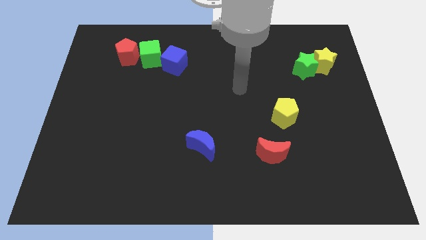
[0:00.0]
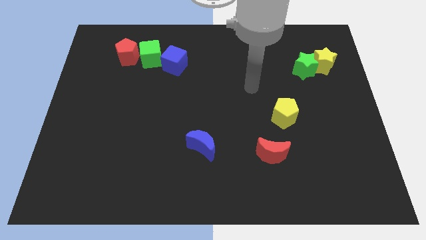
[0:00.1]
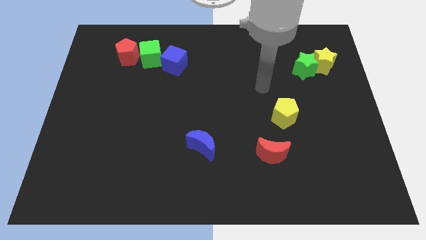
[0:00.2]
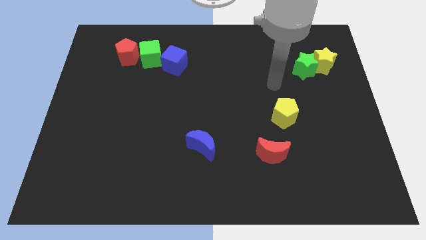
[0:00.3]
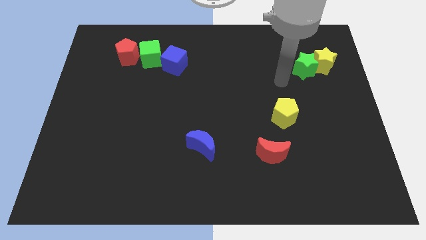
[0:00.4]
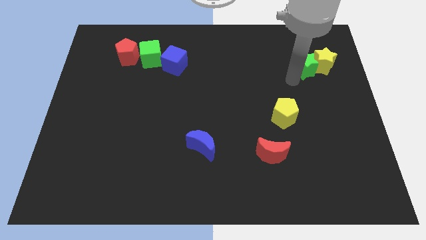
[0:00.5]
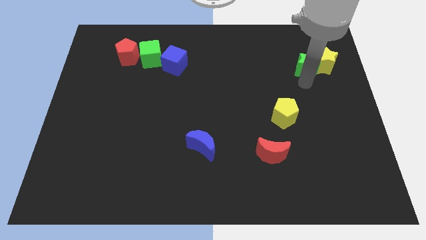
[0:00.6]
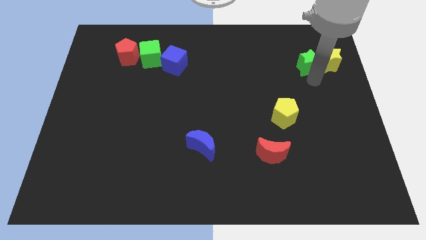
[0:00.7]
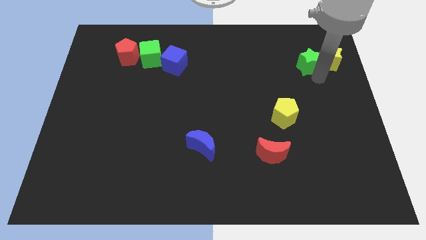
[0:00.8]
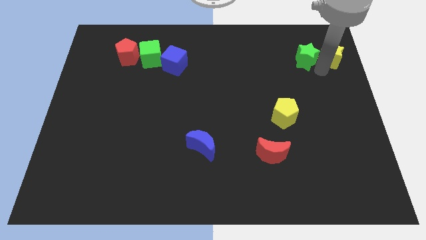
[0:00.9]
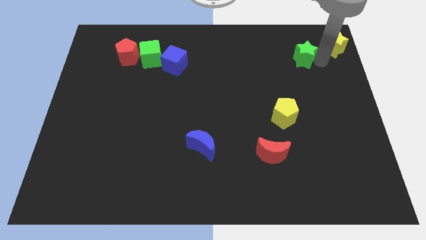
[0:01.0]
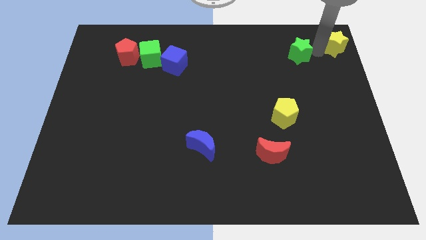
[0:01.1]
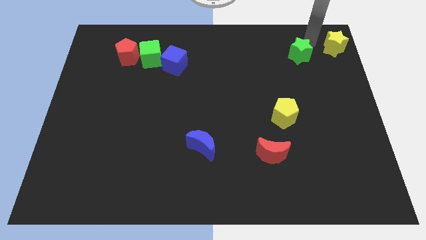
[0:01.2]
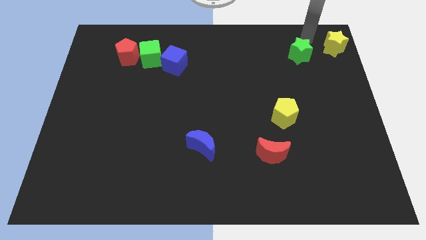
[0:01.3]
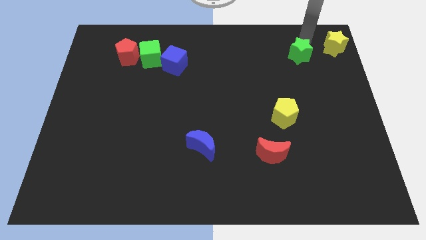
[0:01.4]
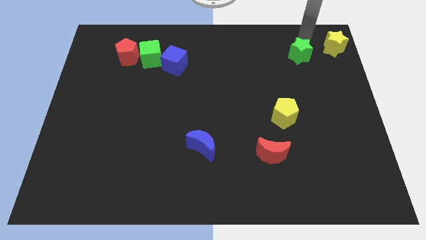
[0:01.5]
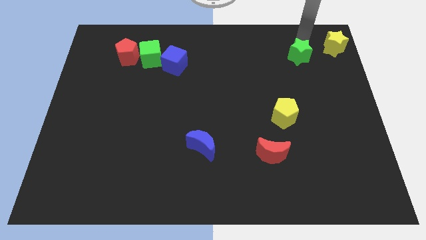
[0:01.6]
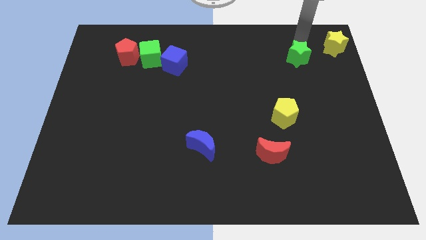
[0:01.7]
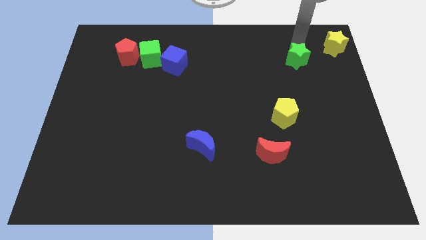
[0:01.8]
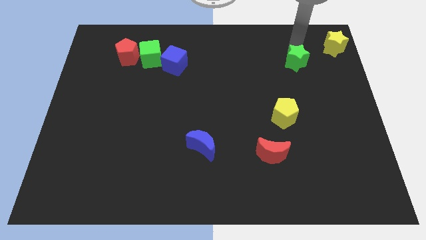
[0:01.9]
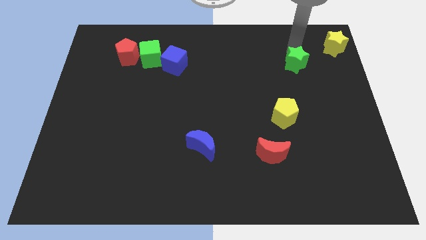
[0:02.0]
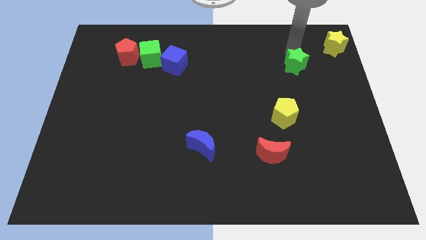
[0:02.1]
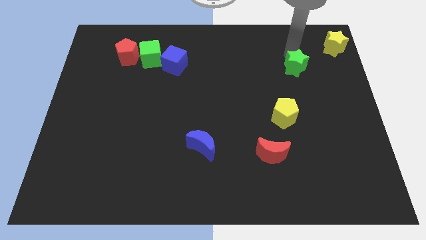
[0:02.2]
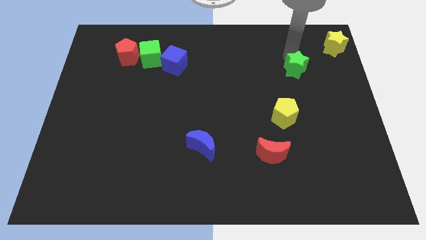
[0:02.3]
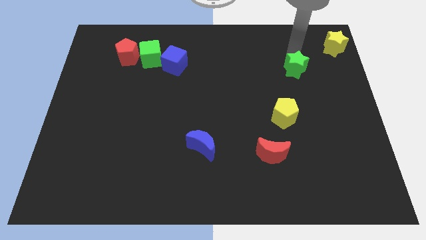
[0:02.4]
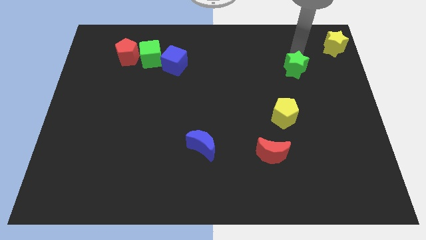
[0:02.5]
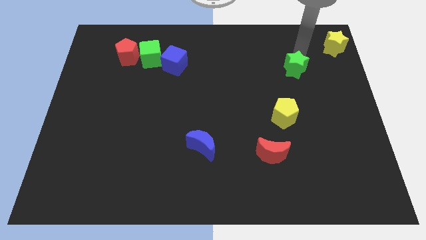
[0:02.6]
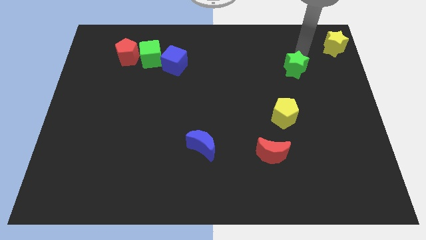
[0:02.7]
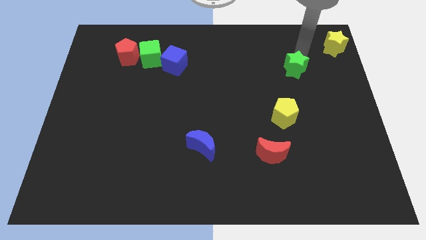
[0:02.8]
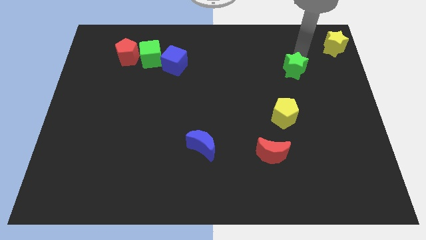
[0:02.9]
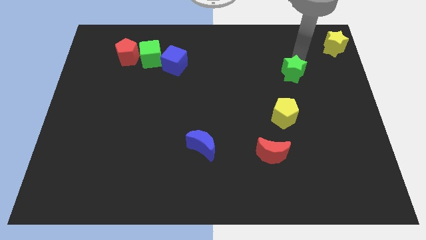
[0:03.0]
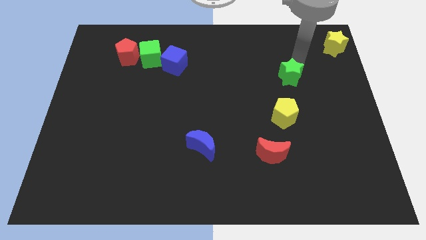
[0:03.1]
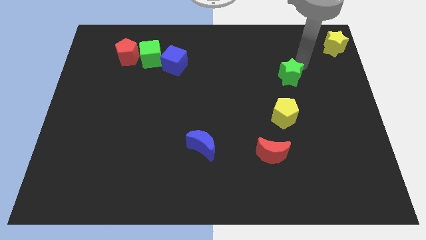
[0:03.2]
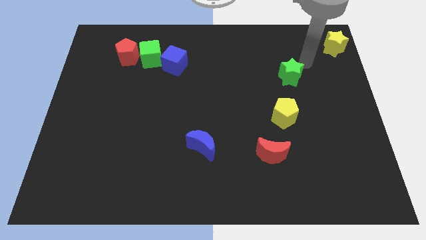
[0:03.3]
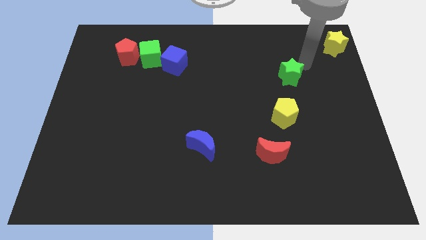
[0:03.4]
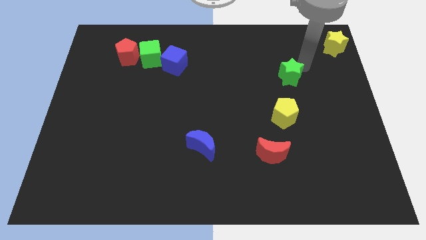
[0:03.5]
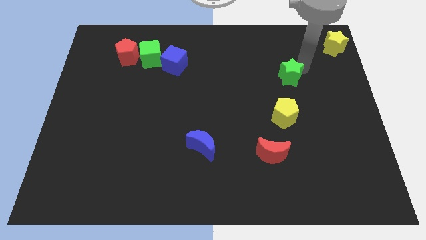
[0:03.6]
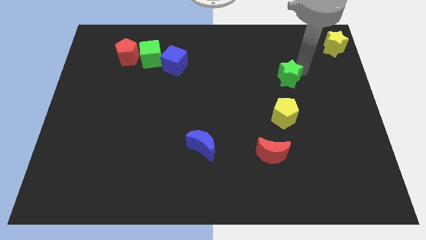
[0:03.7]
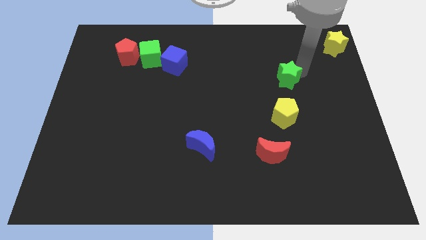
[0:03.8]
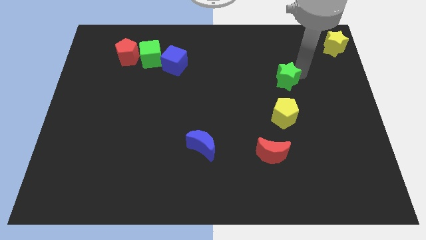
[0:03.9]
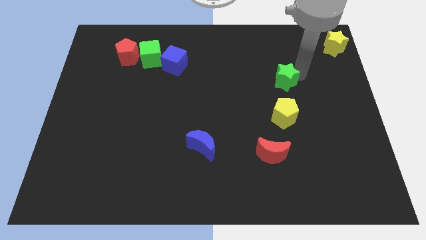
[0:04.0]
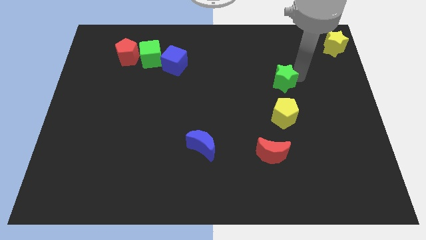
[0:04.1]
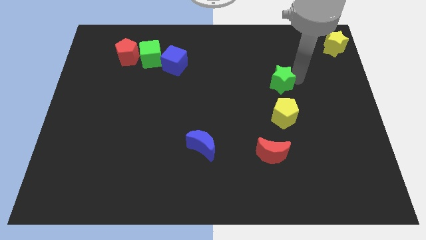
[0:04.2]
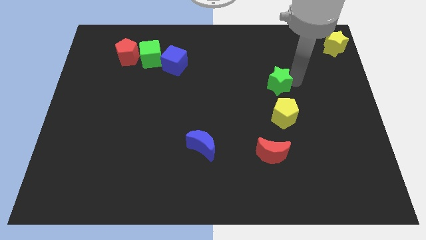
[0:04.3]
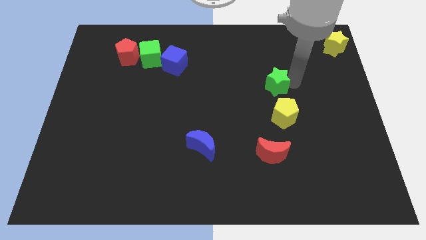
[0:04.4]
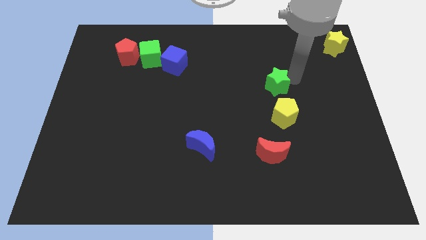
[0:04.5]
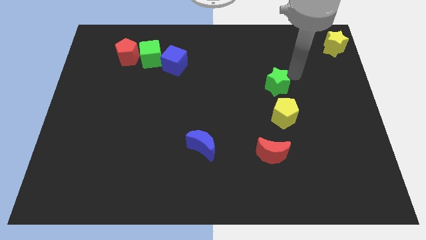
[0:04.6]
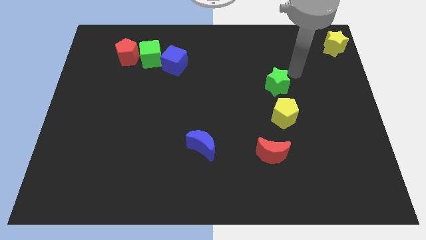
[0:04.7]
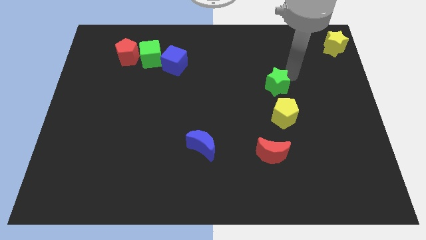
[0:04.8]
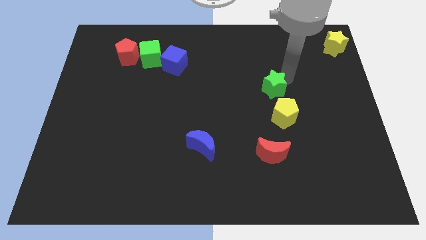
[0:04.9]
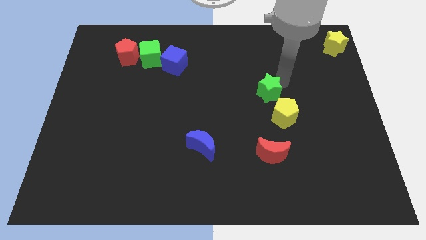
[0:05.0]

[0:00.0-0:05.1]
slide the green star to the top left side of the yellow pentagon

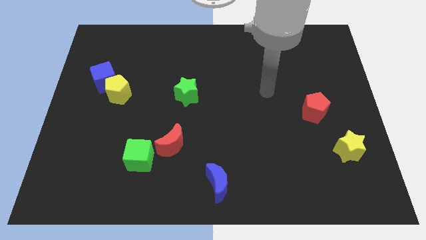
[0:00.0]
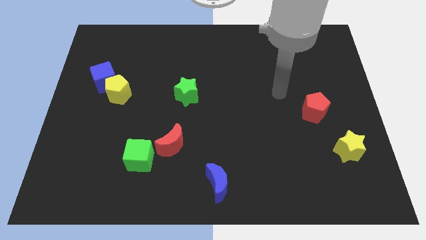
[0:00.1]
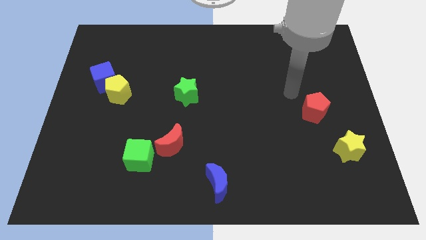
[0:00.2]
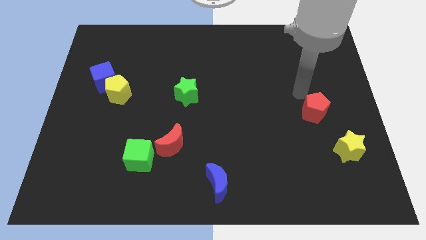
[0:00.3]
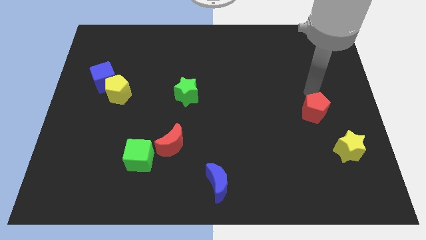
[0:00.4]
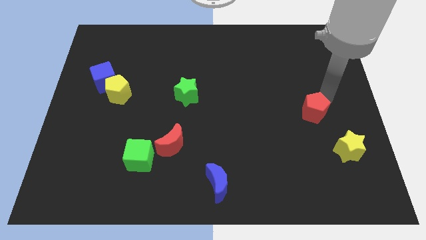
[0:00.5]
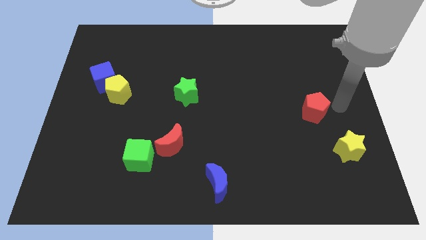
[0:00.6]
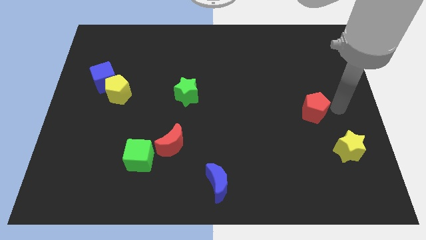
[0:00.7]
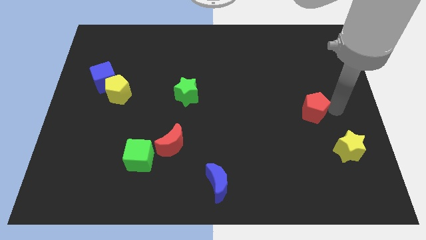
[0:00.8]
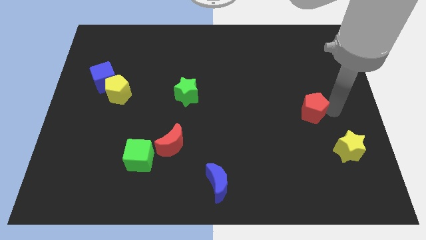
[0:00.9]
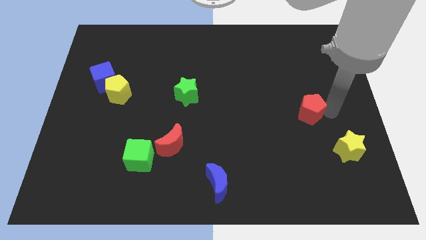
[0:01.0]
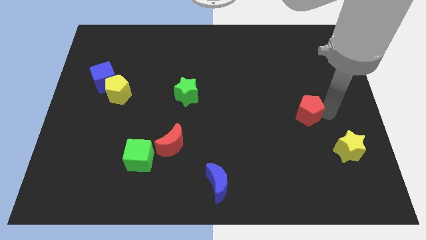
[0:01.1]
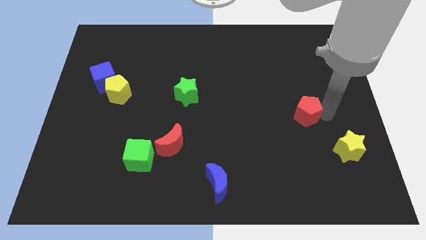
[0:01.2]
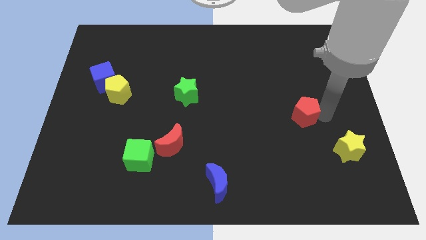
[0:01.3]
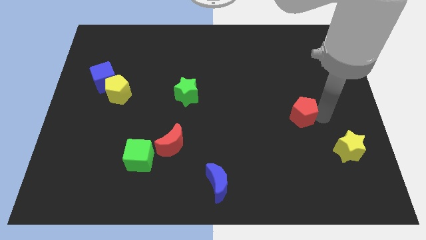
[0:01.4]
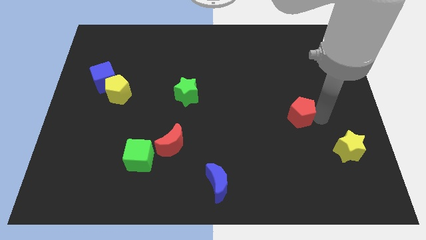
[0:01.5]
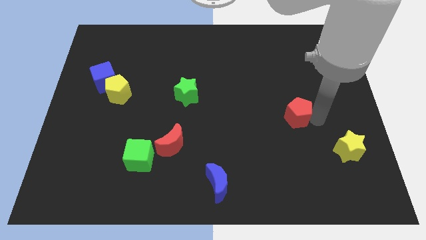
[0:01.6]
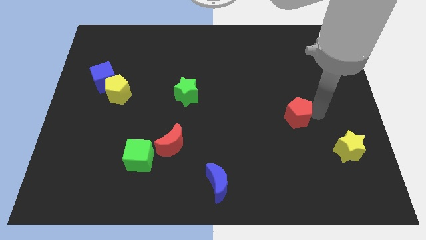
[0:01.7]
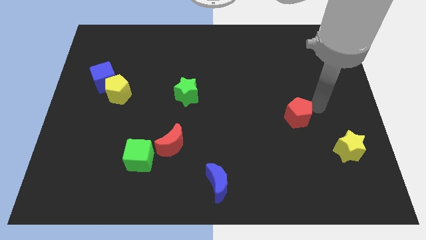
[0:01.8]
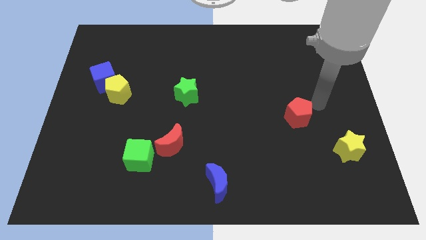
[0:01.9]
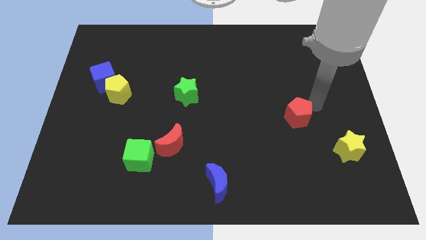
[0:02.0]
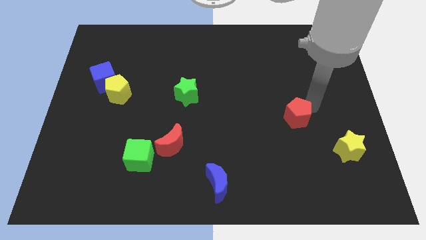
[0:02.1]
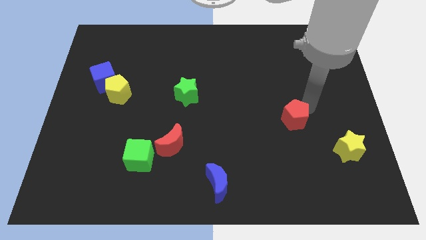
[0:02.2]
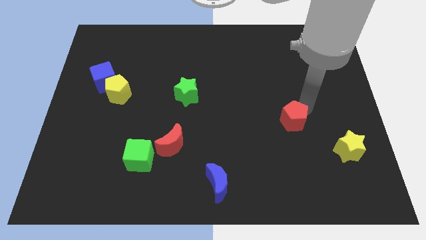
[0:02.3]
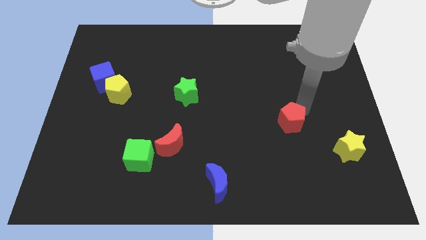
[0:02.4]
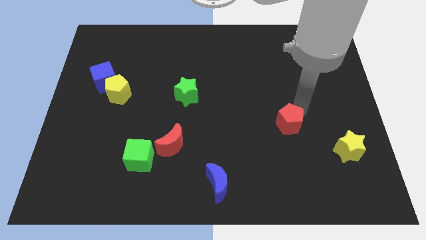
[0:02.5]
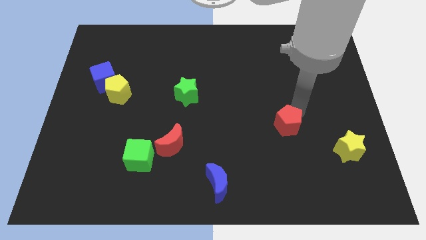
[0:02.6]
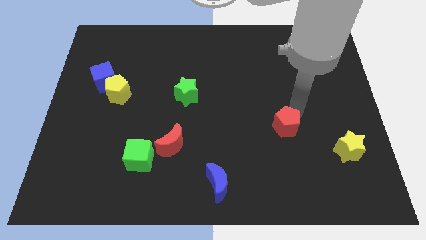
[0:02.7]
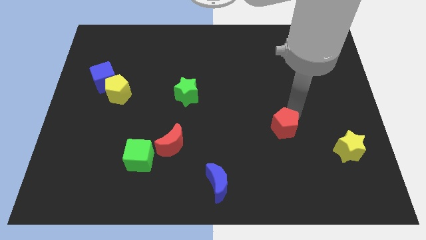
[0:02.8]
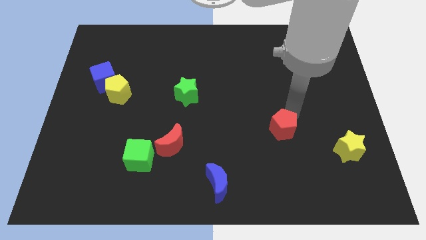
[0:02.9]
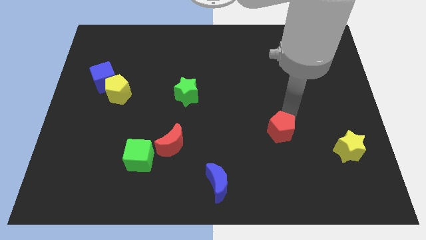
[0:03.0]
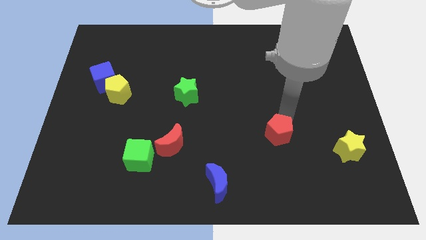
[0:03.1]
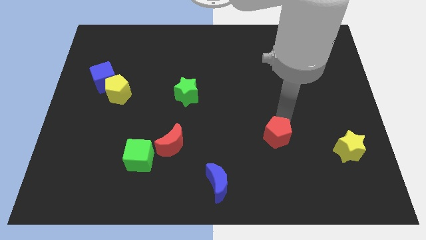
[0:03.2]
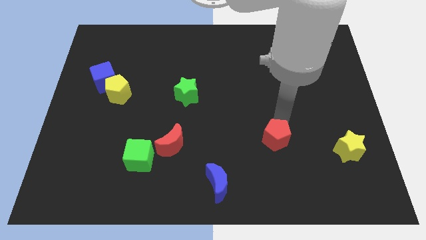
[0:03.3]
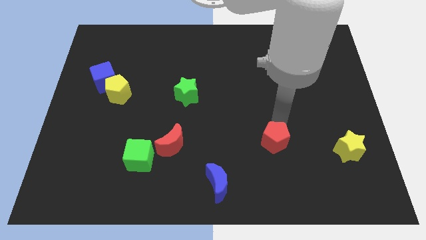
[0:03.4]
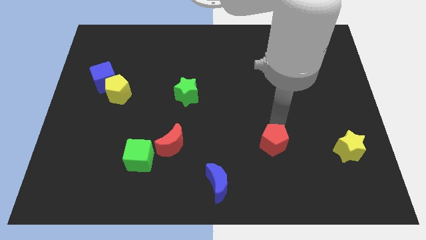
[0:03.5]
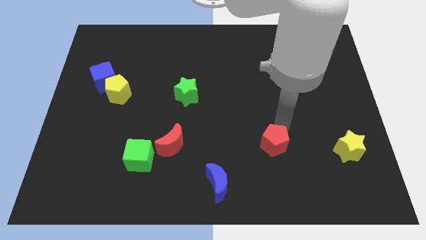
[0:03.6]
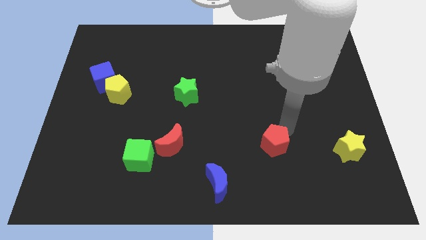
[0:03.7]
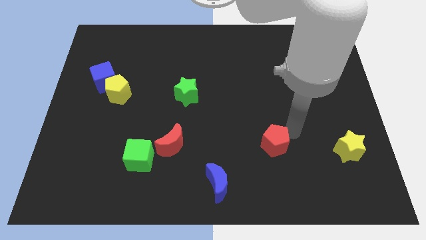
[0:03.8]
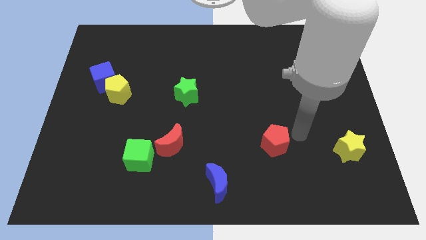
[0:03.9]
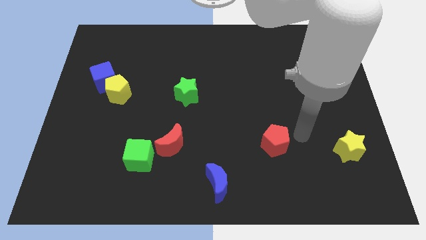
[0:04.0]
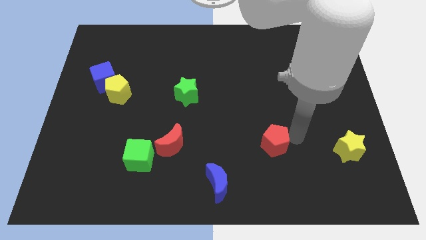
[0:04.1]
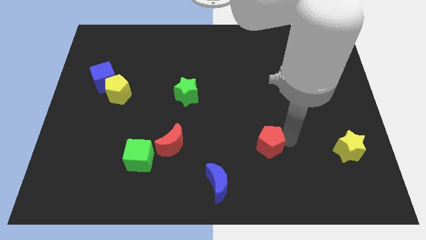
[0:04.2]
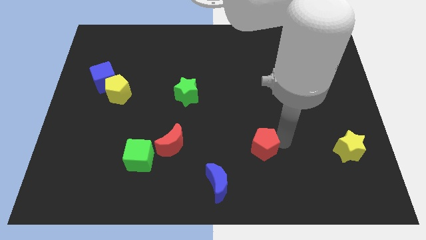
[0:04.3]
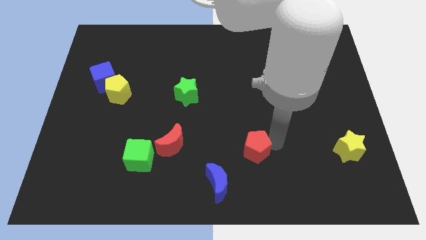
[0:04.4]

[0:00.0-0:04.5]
move the red pentagon diagonally up and to the right of the blue moon
